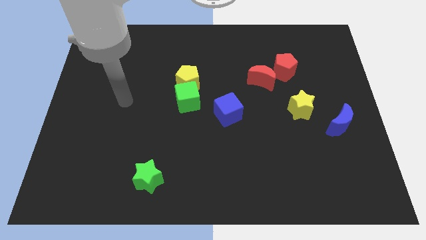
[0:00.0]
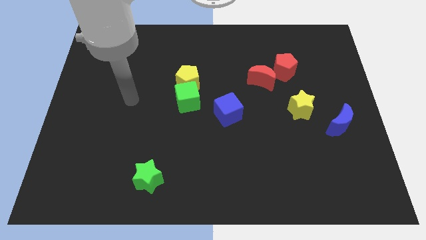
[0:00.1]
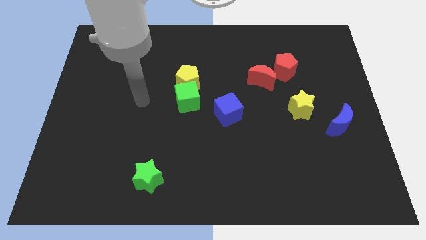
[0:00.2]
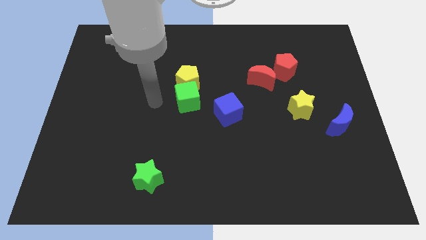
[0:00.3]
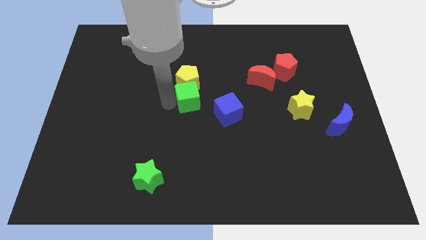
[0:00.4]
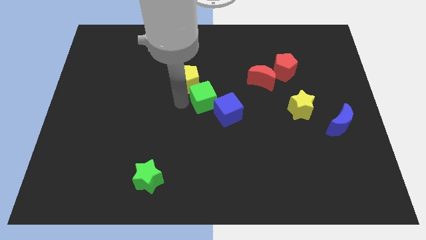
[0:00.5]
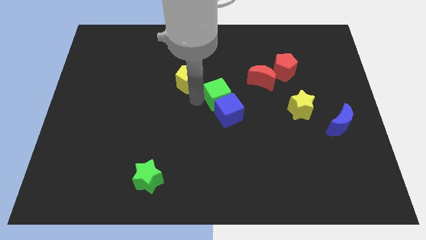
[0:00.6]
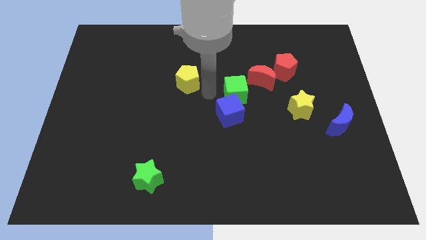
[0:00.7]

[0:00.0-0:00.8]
pull the yellow pentagon apart from the green cube

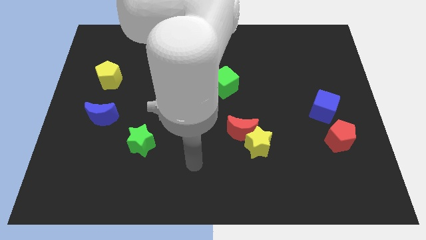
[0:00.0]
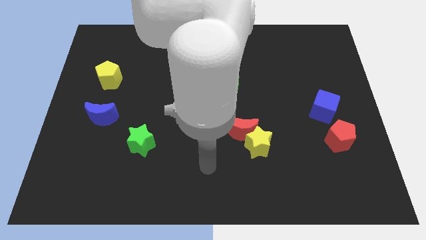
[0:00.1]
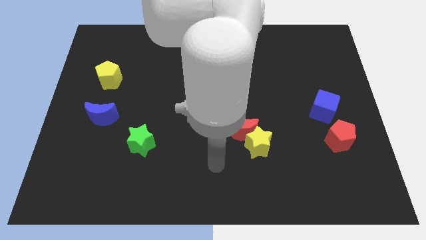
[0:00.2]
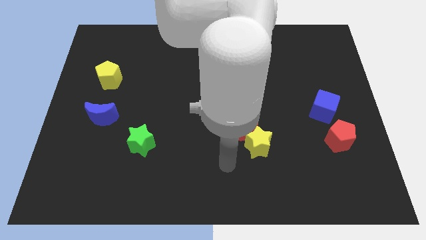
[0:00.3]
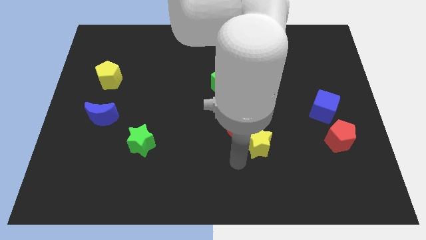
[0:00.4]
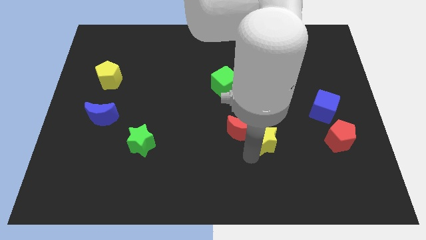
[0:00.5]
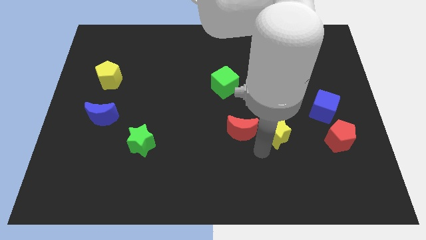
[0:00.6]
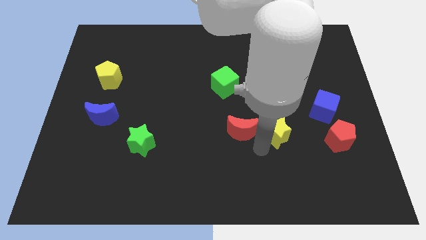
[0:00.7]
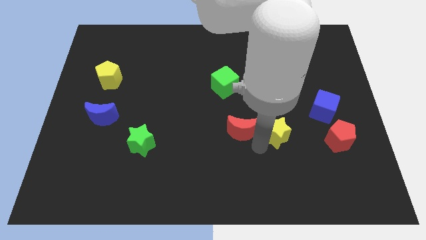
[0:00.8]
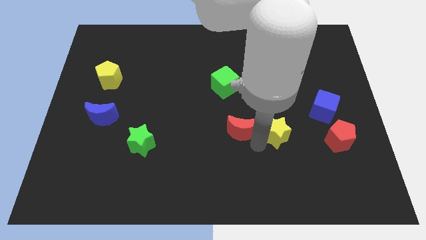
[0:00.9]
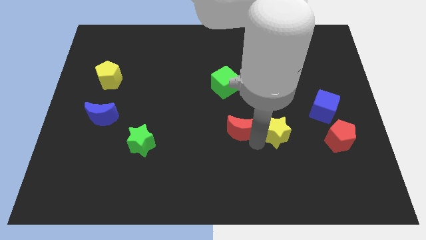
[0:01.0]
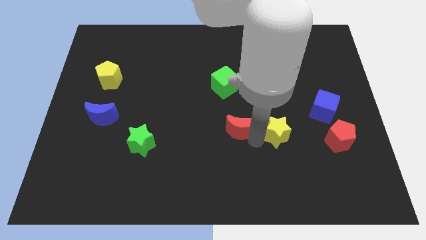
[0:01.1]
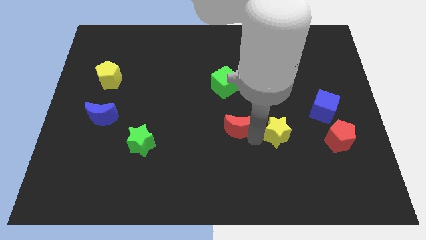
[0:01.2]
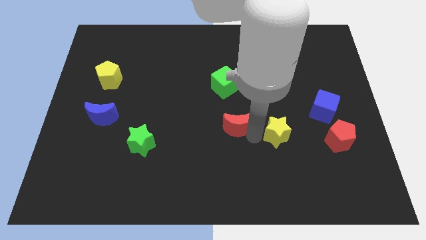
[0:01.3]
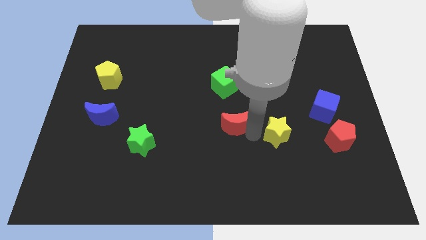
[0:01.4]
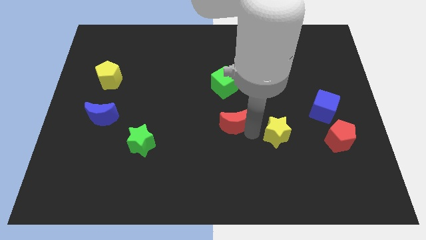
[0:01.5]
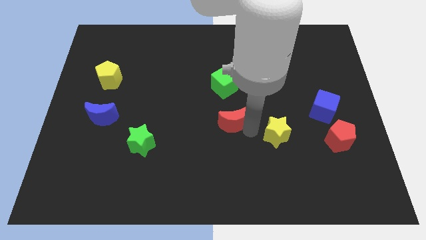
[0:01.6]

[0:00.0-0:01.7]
separate the red moon from the yellow star

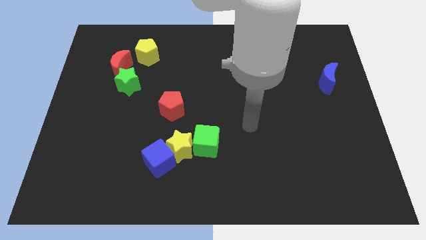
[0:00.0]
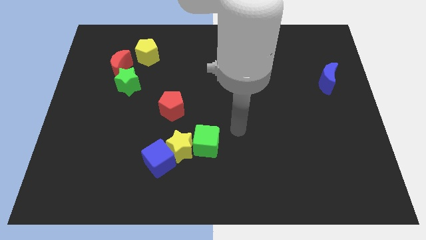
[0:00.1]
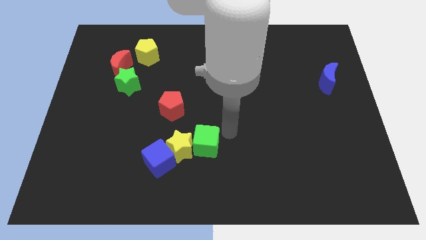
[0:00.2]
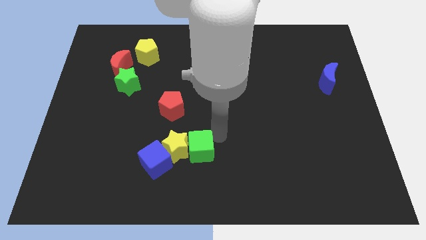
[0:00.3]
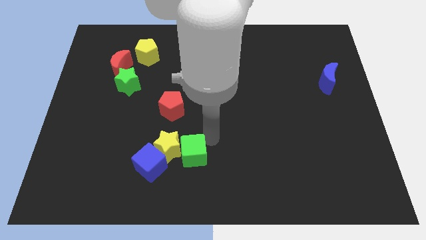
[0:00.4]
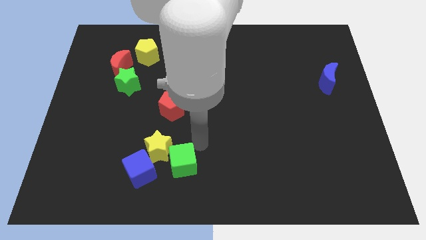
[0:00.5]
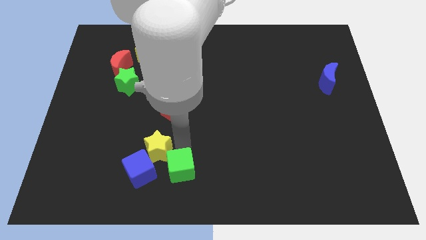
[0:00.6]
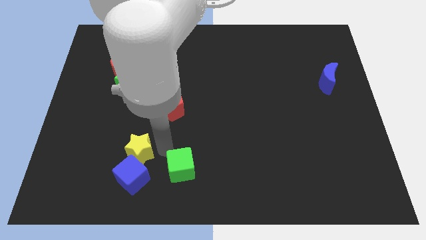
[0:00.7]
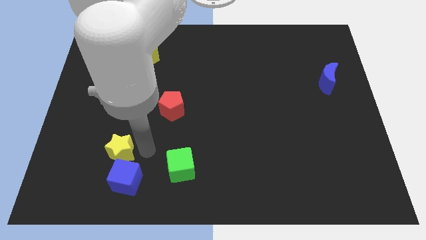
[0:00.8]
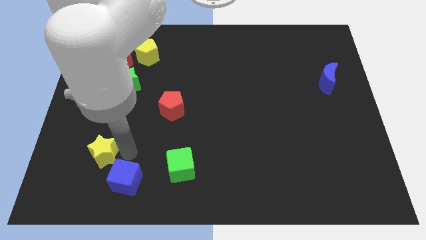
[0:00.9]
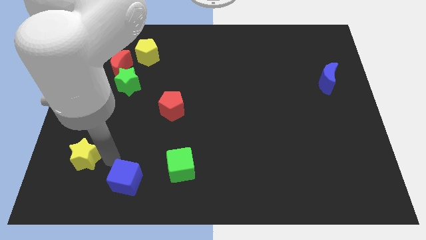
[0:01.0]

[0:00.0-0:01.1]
move the blue cube away from the yellow star

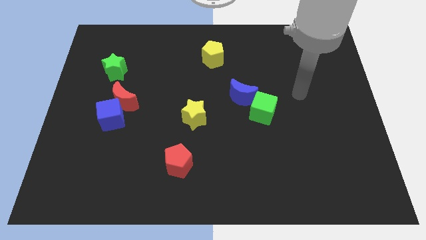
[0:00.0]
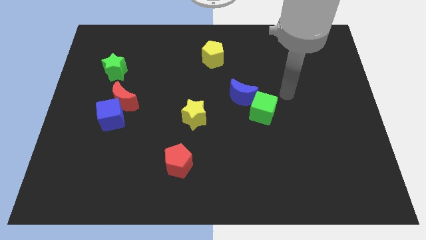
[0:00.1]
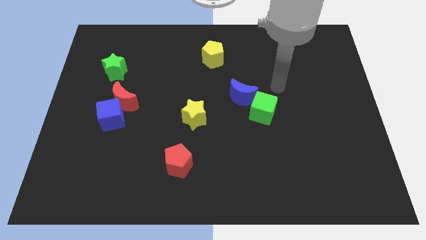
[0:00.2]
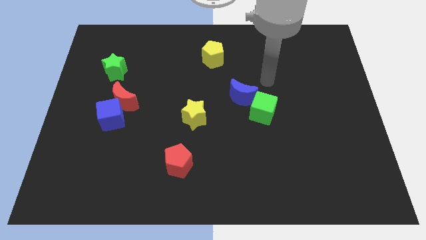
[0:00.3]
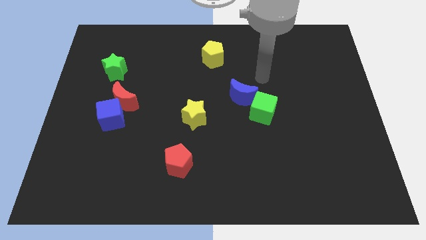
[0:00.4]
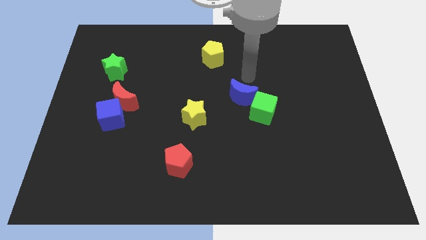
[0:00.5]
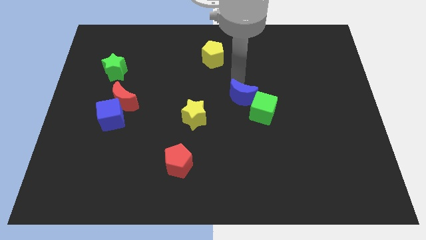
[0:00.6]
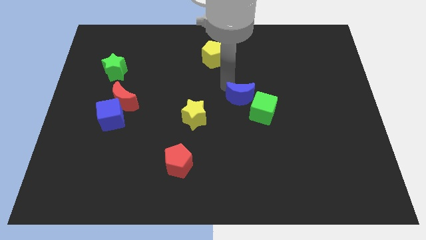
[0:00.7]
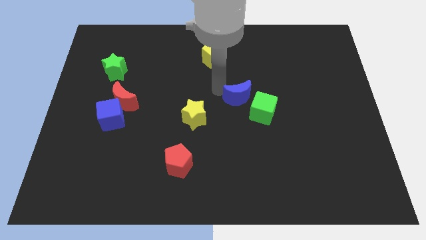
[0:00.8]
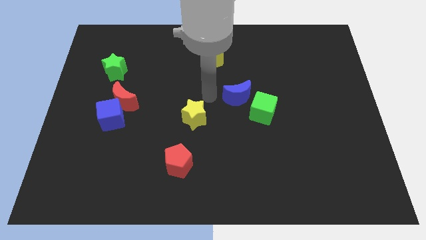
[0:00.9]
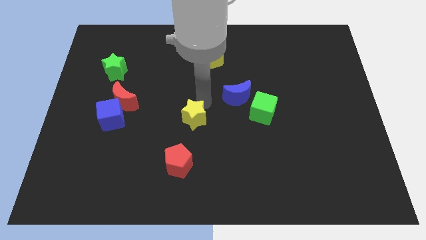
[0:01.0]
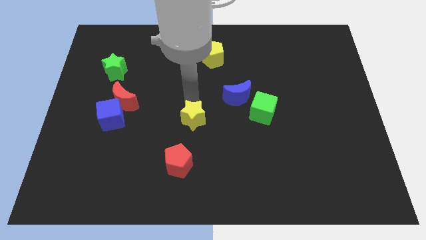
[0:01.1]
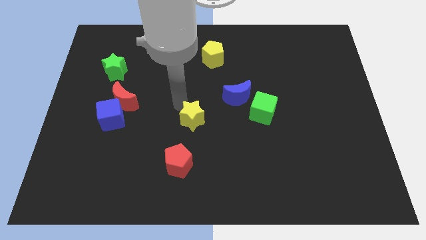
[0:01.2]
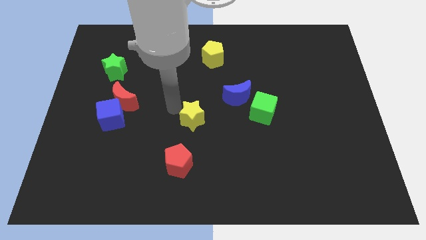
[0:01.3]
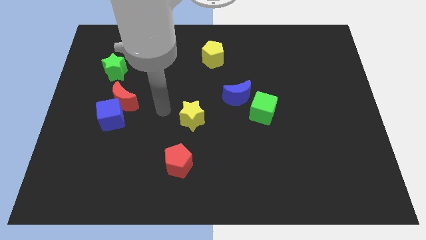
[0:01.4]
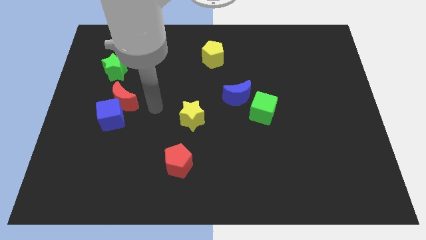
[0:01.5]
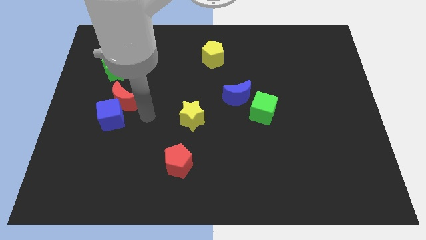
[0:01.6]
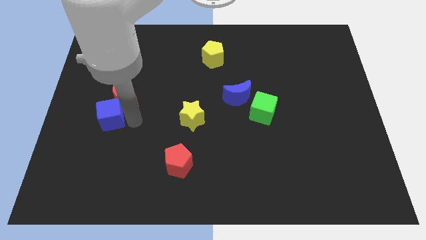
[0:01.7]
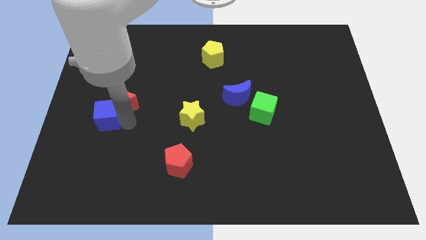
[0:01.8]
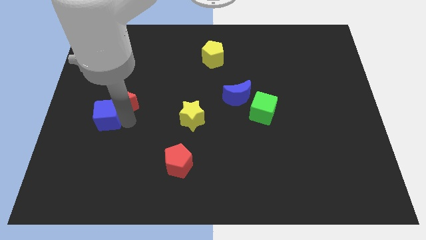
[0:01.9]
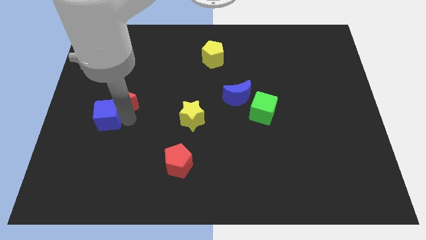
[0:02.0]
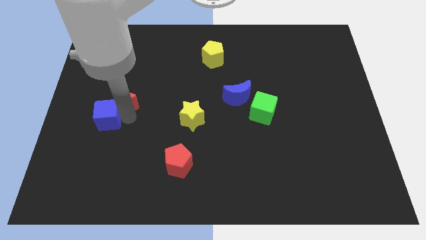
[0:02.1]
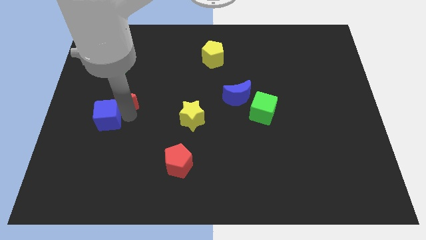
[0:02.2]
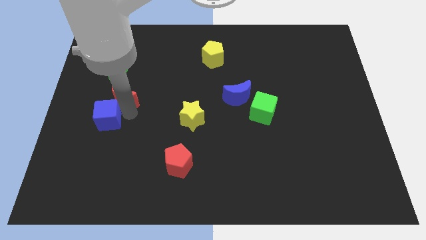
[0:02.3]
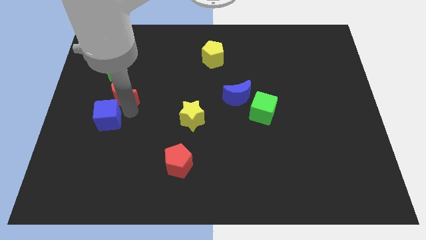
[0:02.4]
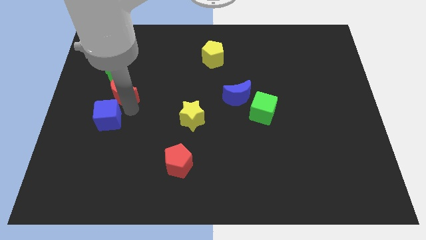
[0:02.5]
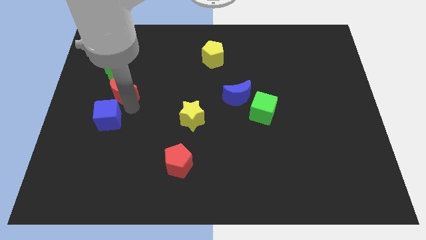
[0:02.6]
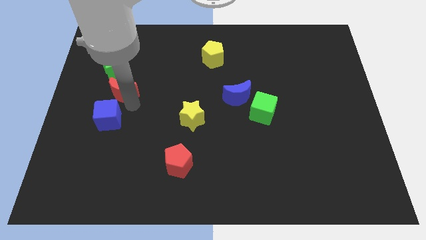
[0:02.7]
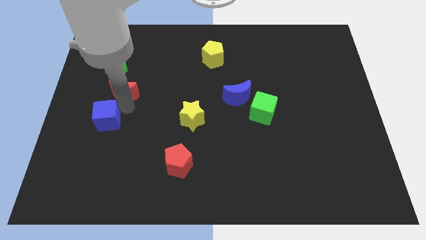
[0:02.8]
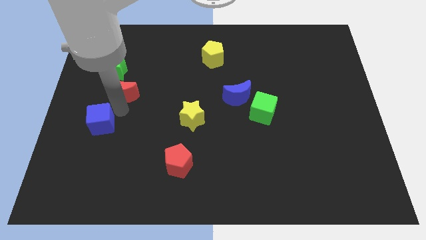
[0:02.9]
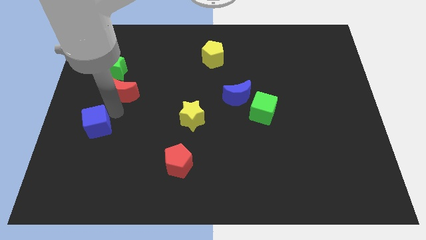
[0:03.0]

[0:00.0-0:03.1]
pull the red moon apart from the blue cube

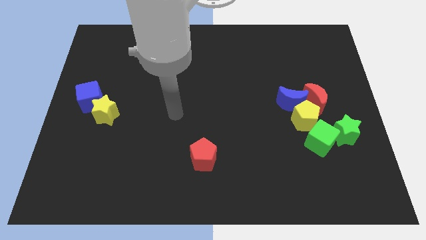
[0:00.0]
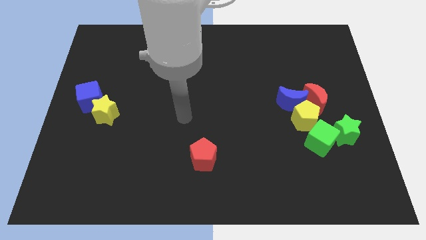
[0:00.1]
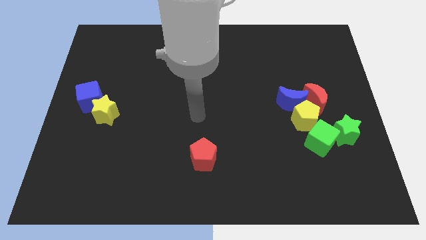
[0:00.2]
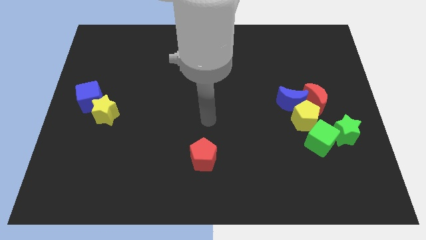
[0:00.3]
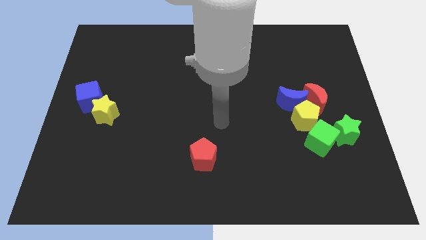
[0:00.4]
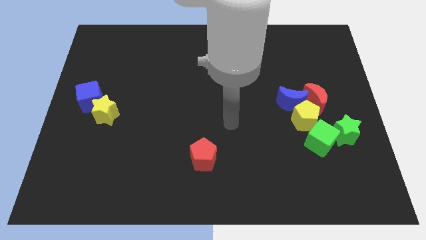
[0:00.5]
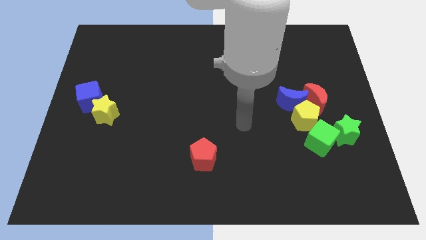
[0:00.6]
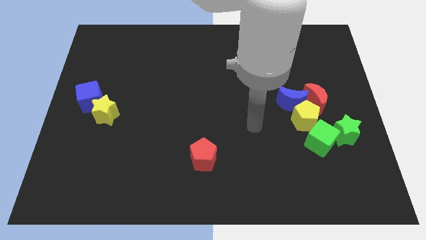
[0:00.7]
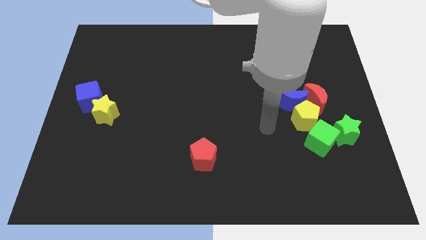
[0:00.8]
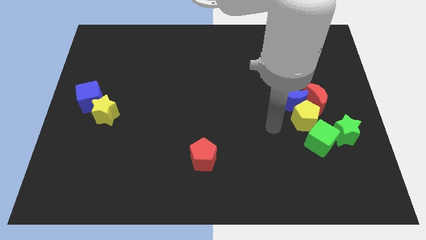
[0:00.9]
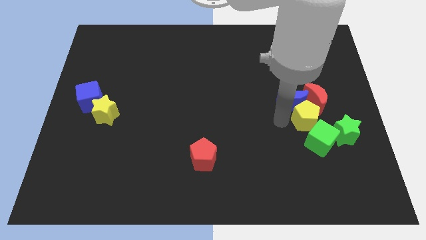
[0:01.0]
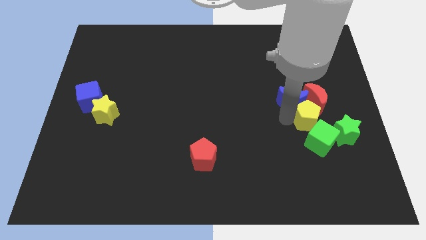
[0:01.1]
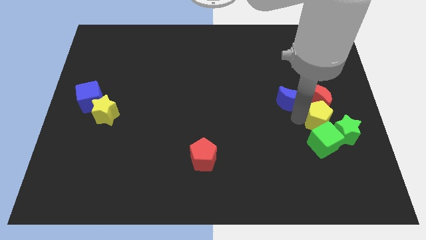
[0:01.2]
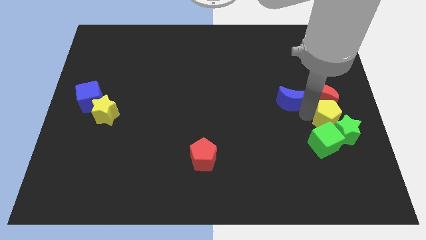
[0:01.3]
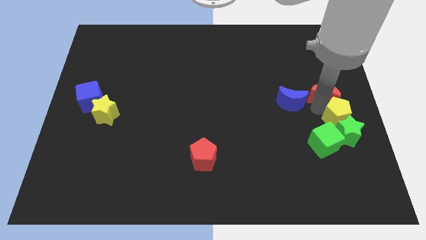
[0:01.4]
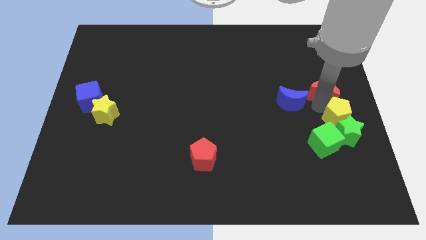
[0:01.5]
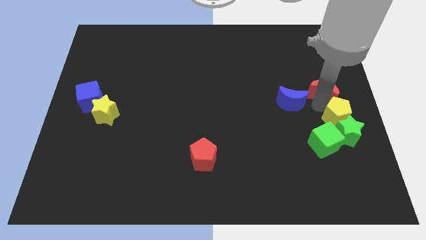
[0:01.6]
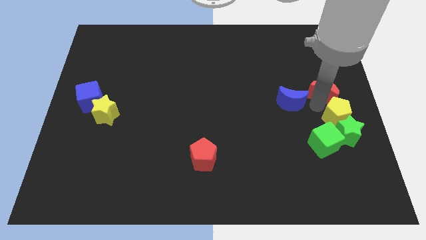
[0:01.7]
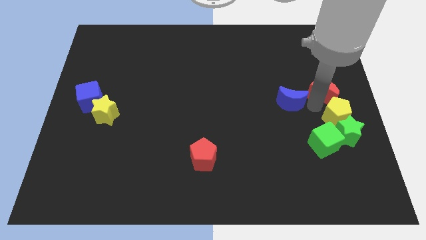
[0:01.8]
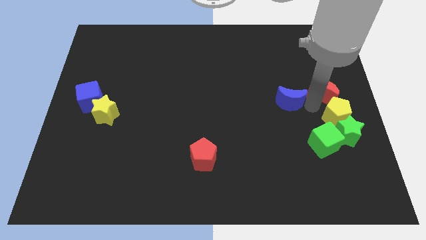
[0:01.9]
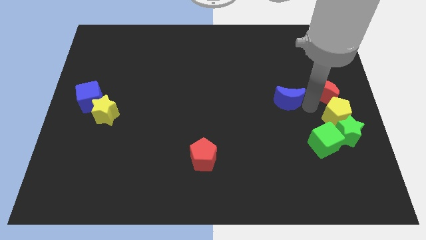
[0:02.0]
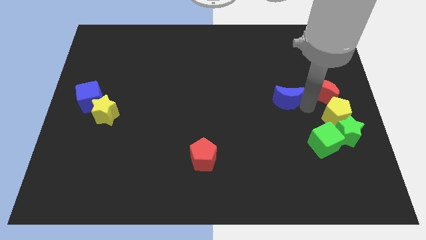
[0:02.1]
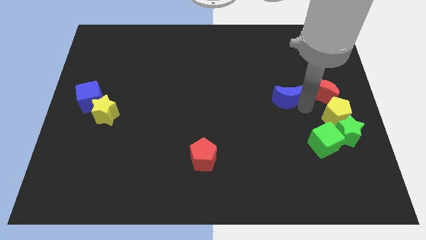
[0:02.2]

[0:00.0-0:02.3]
separate the blue moon from the yellow pentagon and red moon

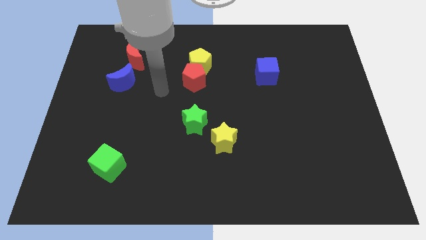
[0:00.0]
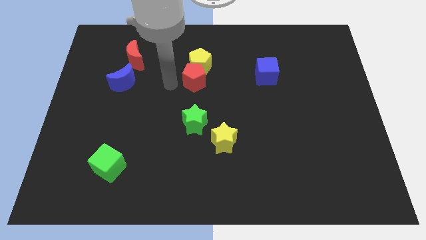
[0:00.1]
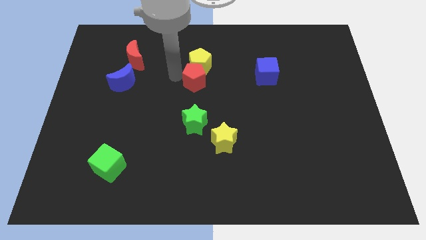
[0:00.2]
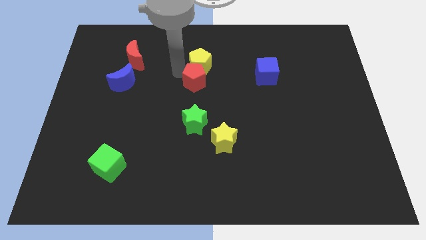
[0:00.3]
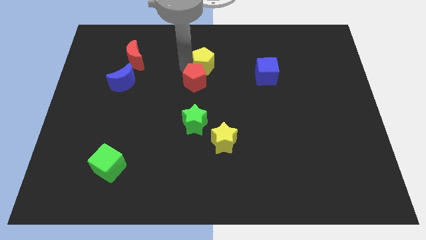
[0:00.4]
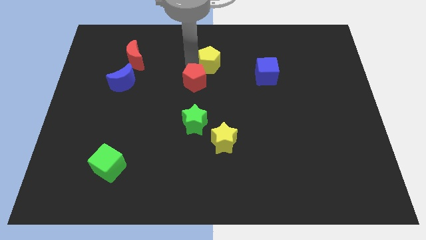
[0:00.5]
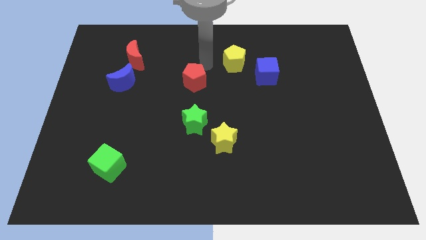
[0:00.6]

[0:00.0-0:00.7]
pull the red pentagon apart from the yellow pentagon
